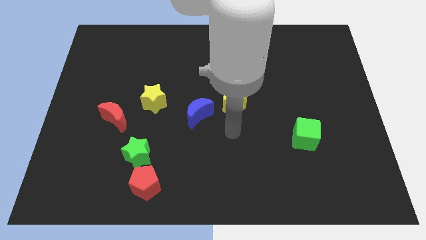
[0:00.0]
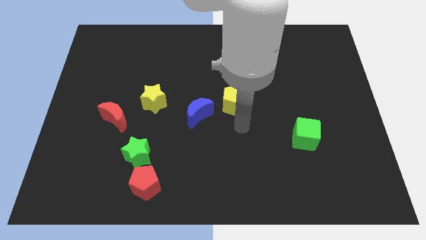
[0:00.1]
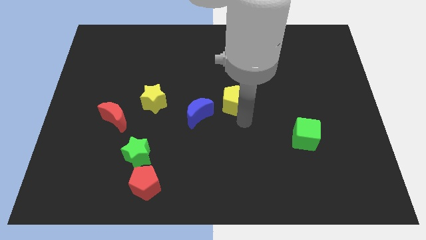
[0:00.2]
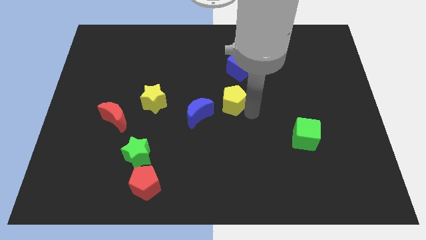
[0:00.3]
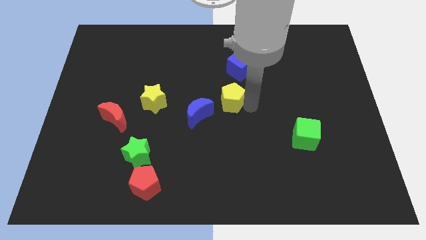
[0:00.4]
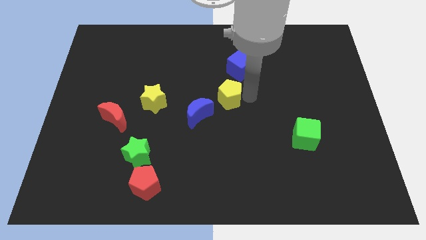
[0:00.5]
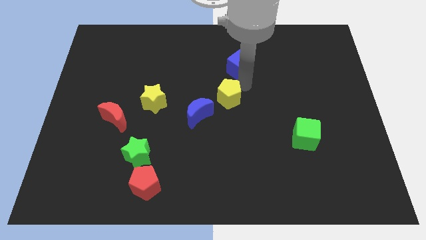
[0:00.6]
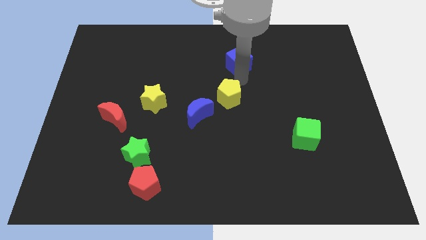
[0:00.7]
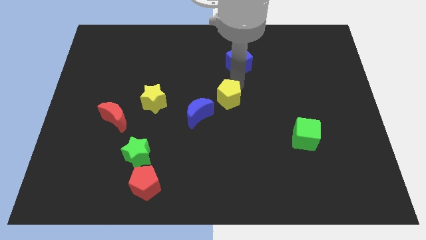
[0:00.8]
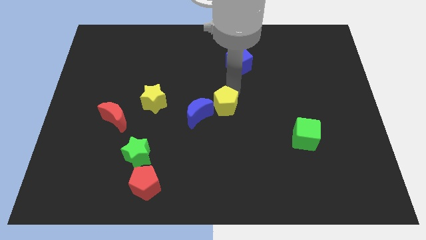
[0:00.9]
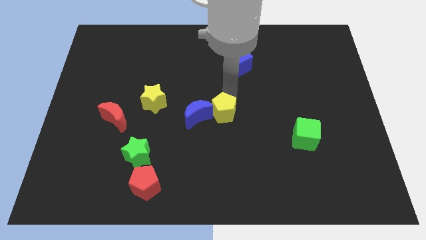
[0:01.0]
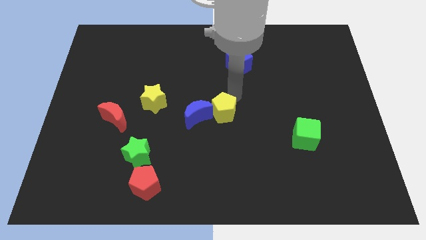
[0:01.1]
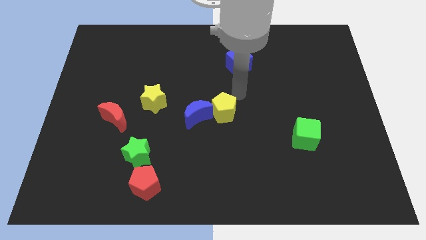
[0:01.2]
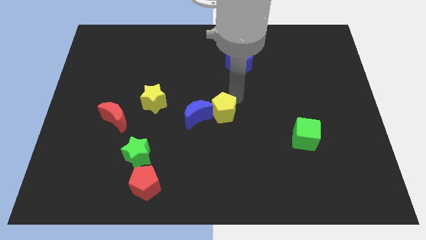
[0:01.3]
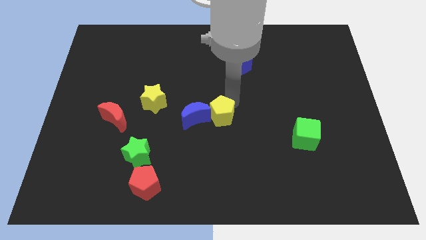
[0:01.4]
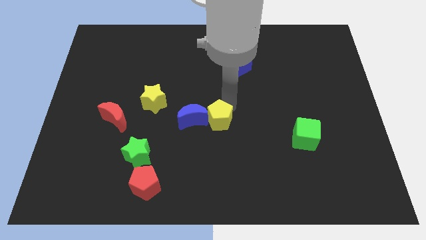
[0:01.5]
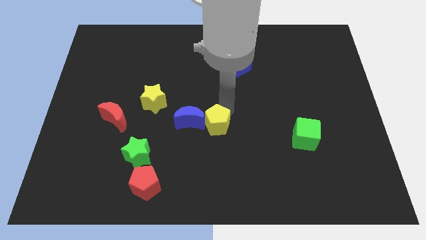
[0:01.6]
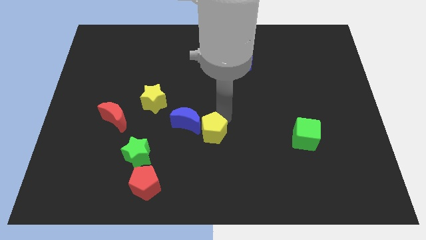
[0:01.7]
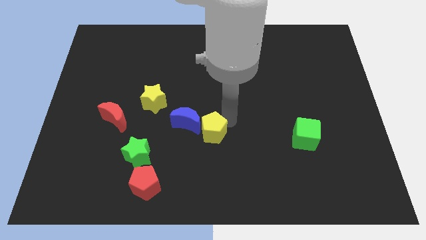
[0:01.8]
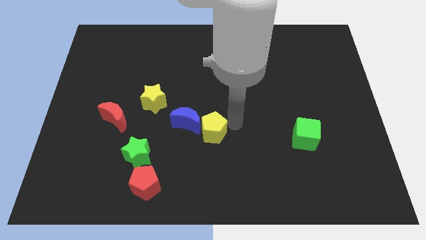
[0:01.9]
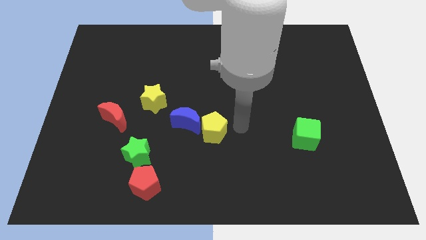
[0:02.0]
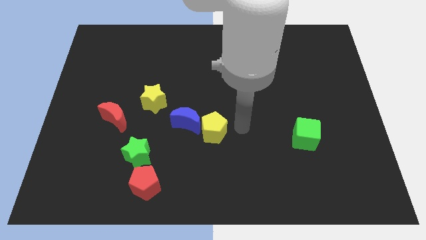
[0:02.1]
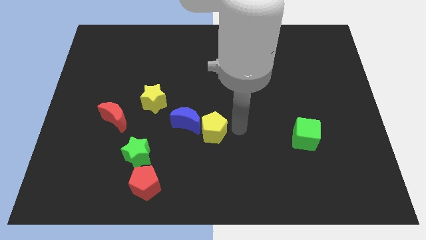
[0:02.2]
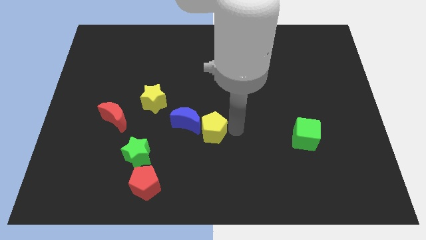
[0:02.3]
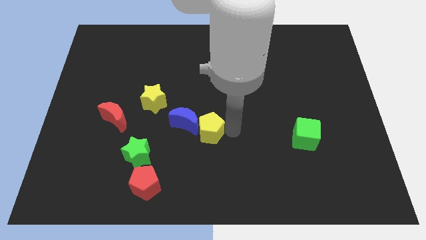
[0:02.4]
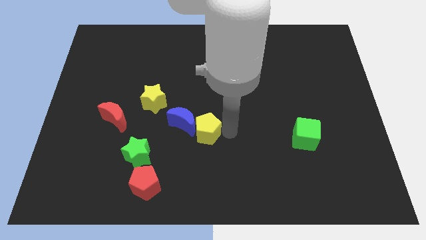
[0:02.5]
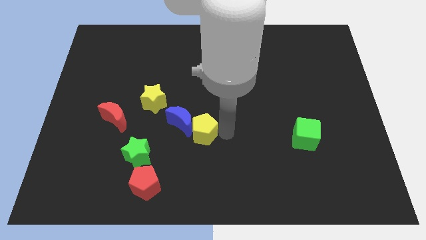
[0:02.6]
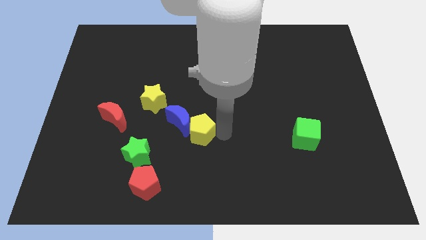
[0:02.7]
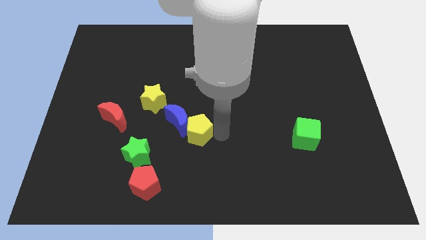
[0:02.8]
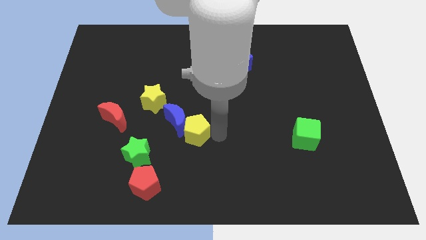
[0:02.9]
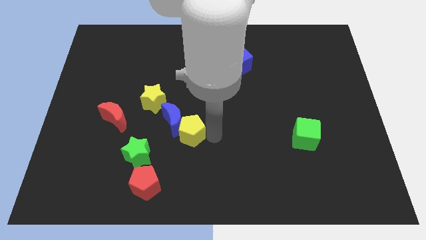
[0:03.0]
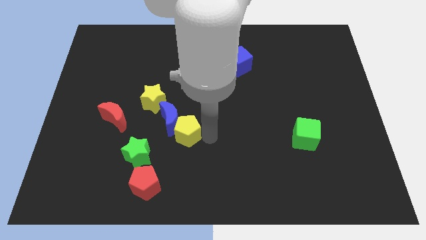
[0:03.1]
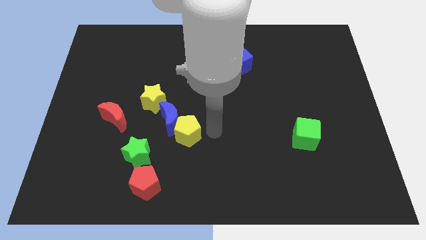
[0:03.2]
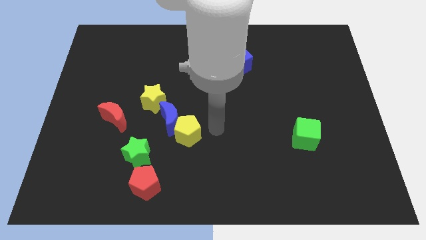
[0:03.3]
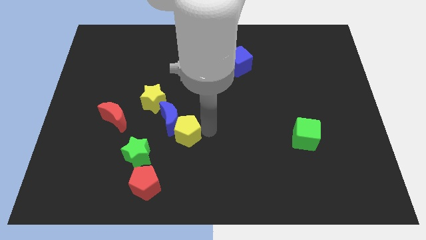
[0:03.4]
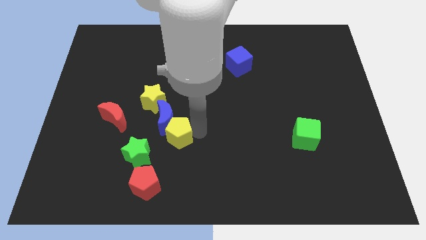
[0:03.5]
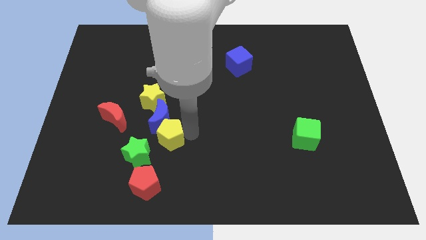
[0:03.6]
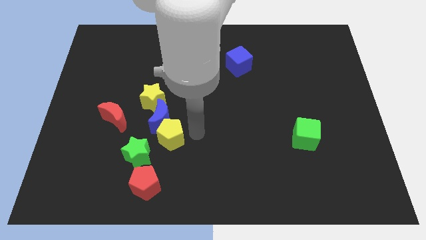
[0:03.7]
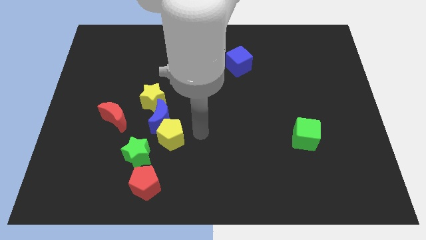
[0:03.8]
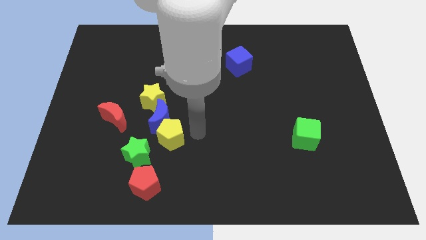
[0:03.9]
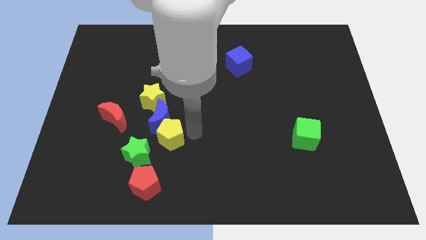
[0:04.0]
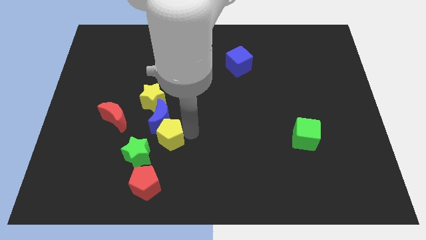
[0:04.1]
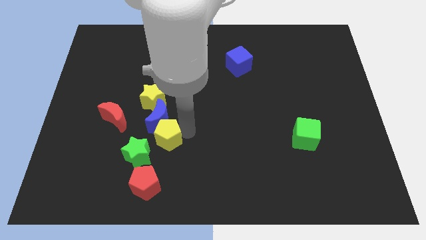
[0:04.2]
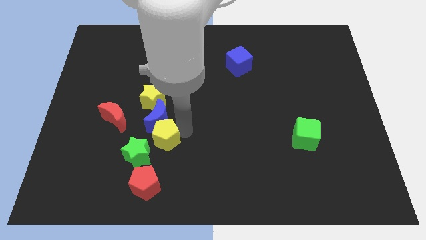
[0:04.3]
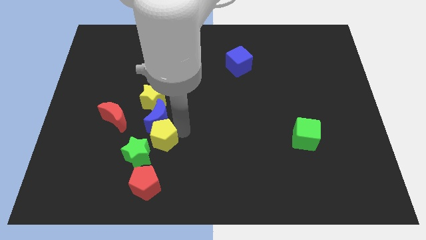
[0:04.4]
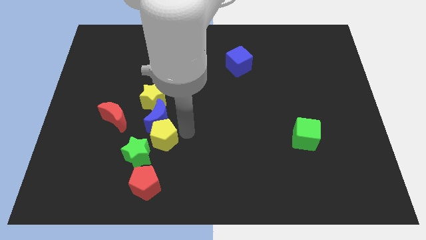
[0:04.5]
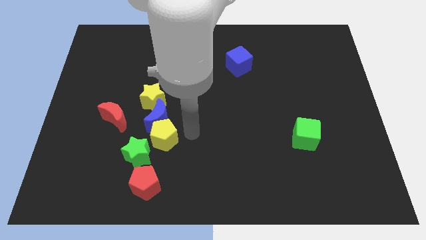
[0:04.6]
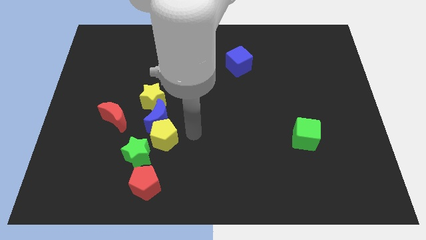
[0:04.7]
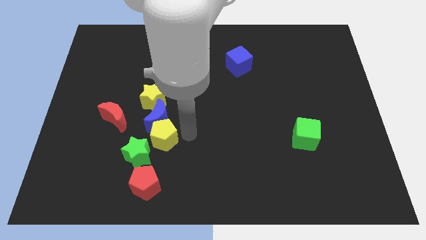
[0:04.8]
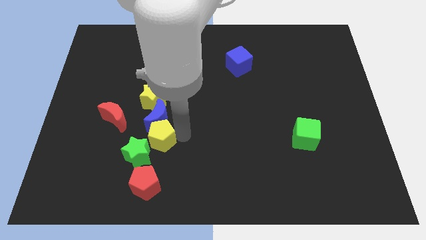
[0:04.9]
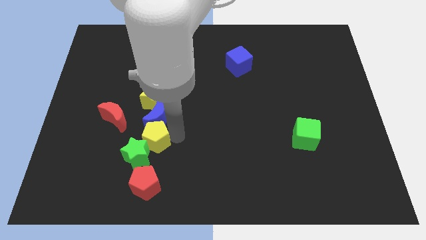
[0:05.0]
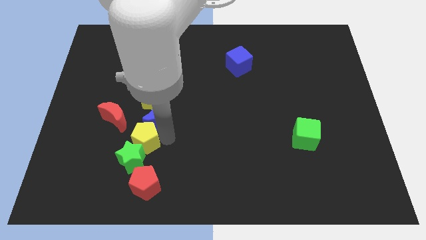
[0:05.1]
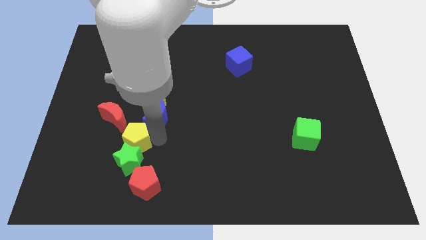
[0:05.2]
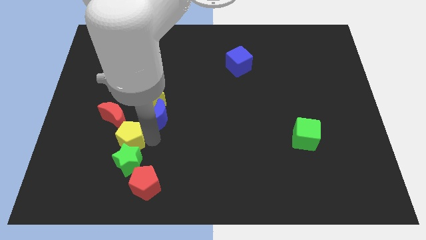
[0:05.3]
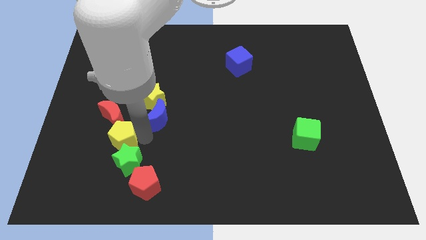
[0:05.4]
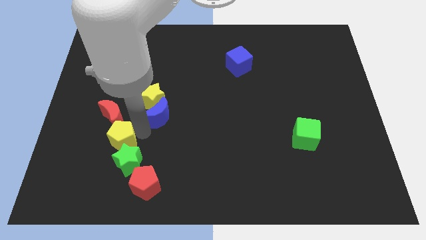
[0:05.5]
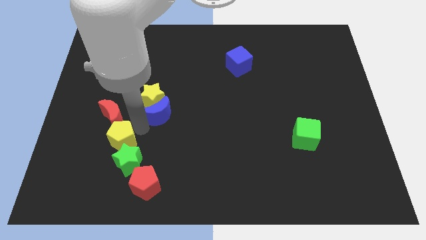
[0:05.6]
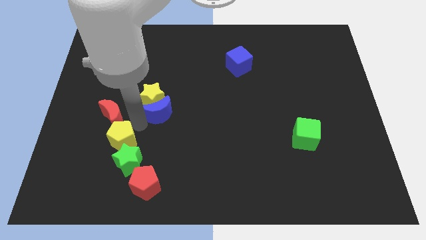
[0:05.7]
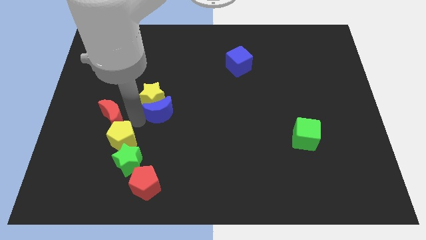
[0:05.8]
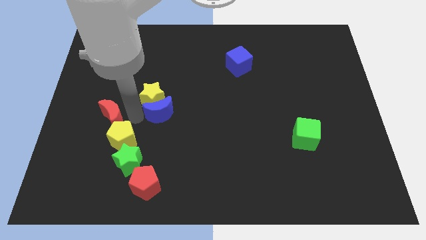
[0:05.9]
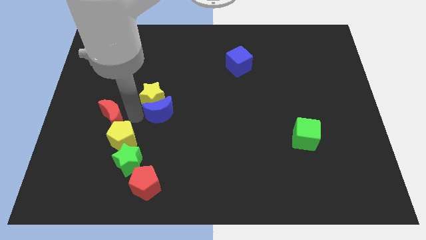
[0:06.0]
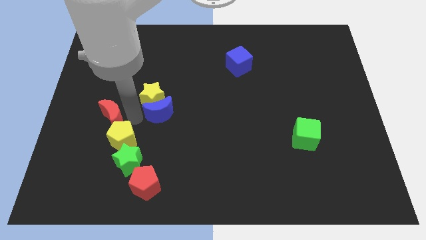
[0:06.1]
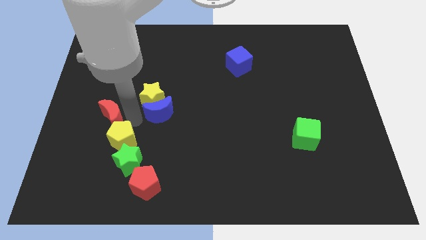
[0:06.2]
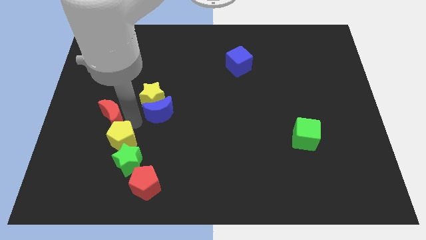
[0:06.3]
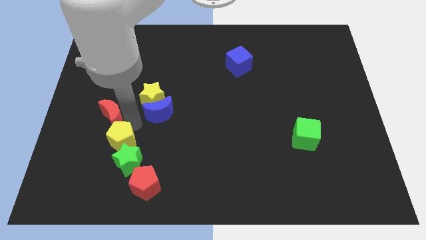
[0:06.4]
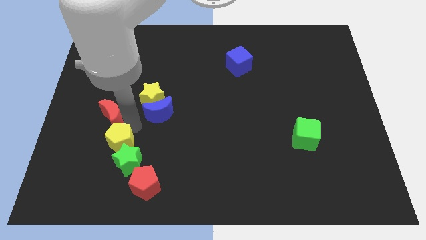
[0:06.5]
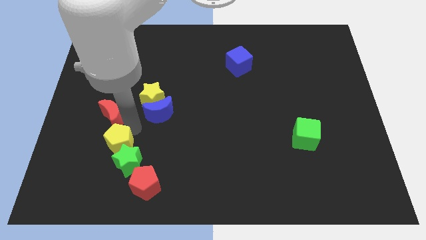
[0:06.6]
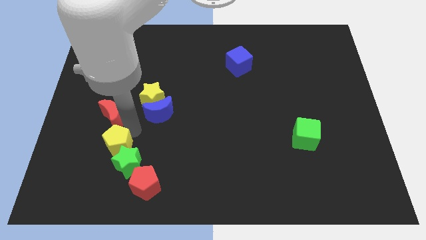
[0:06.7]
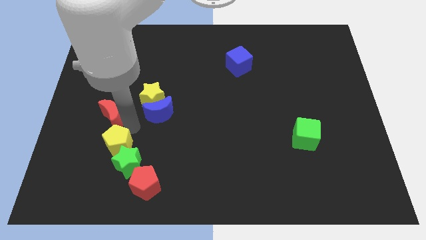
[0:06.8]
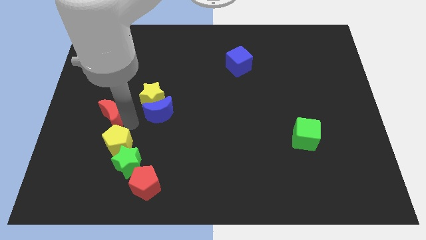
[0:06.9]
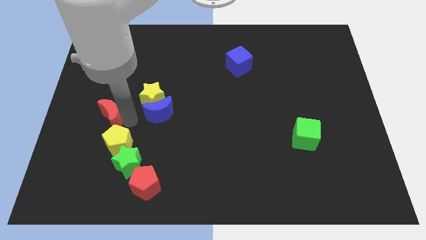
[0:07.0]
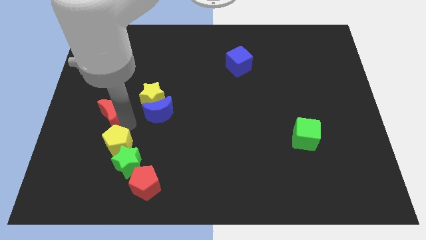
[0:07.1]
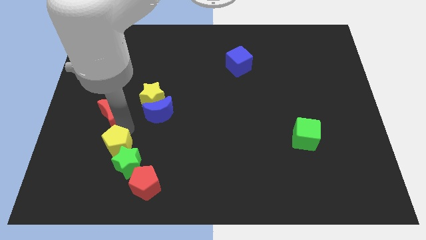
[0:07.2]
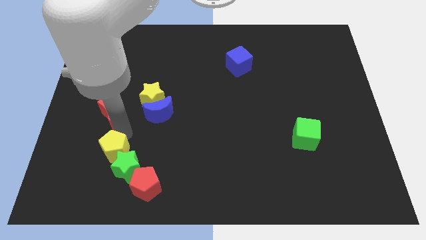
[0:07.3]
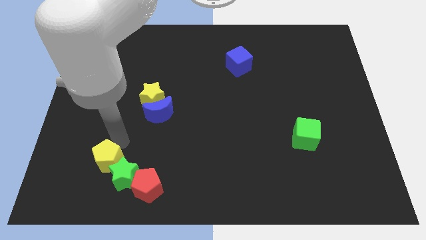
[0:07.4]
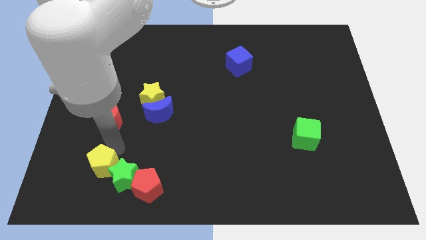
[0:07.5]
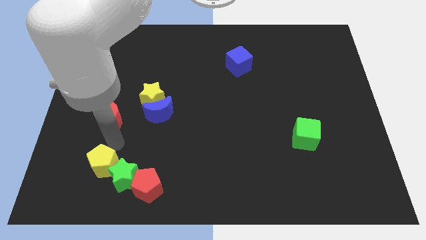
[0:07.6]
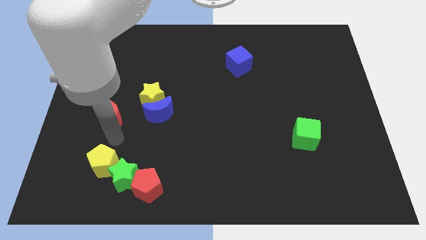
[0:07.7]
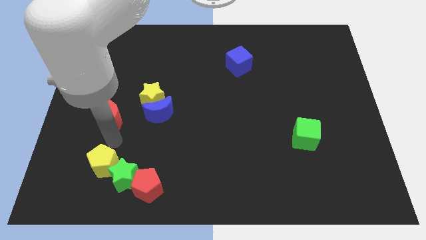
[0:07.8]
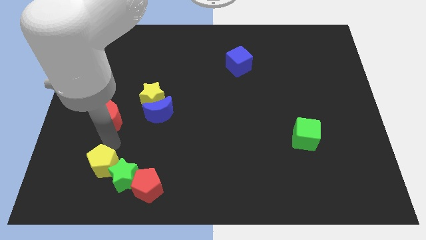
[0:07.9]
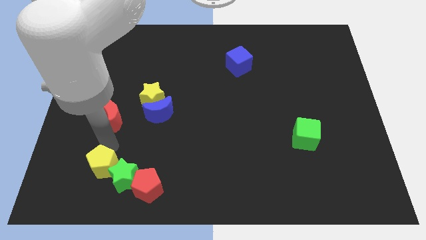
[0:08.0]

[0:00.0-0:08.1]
push the yellow pentagon left of the red pentagon
